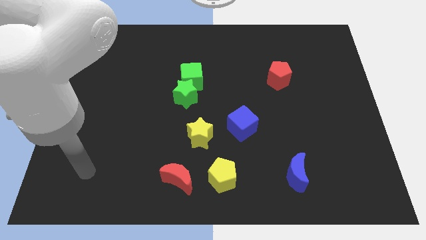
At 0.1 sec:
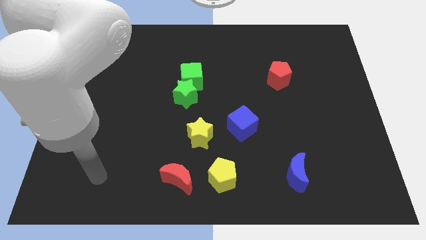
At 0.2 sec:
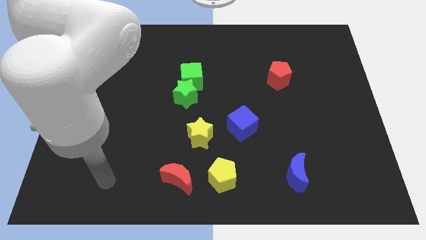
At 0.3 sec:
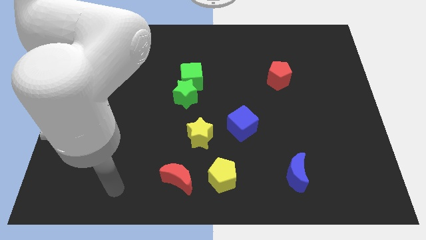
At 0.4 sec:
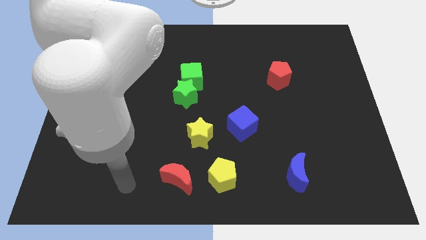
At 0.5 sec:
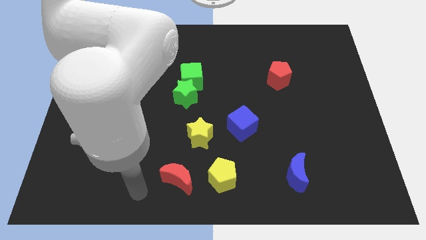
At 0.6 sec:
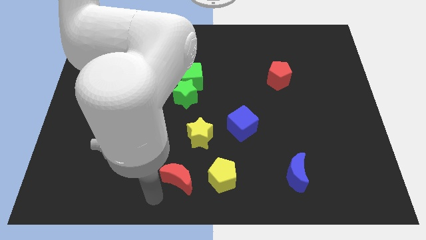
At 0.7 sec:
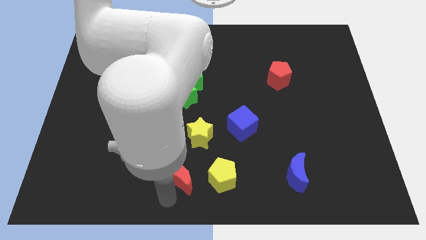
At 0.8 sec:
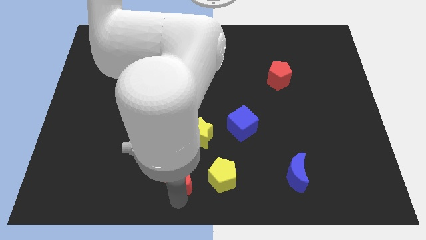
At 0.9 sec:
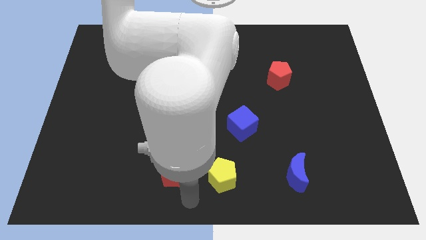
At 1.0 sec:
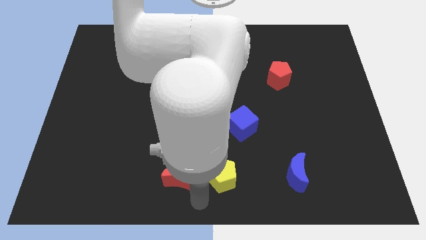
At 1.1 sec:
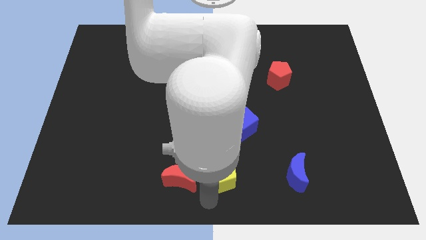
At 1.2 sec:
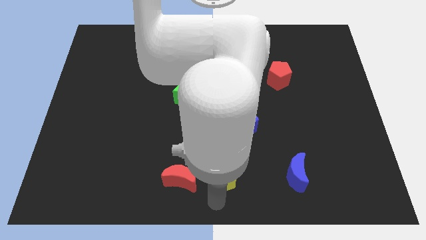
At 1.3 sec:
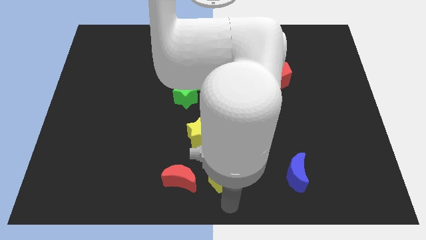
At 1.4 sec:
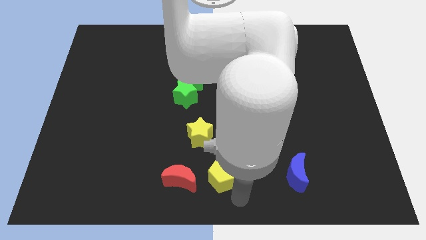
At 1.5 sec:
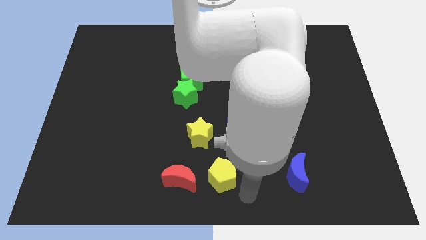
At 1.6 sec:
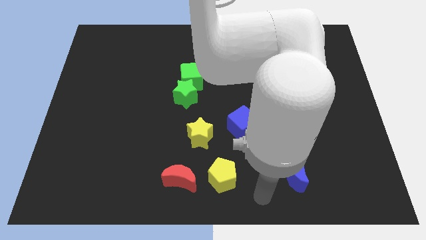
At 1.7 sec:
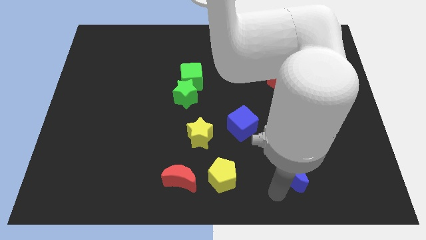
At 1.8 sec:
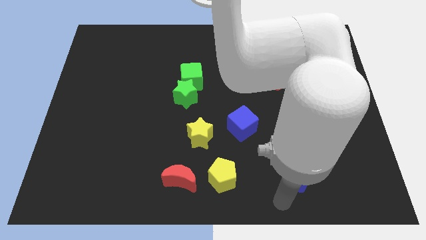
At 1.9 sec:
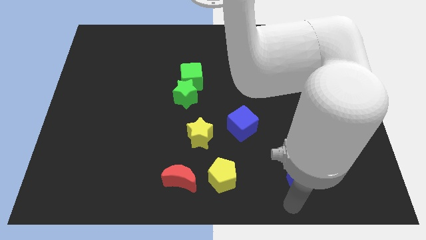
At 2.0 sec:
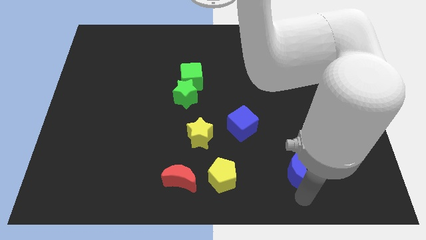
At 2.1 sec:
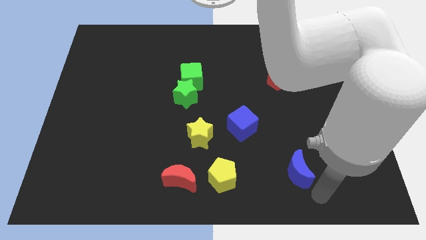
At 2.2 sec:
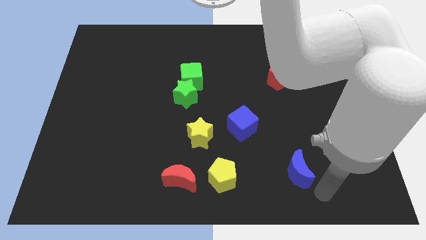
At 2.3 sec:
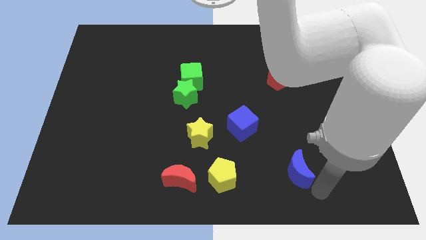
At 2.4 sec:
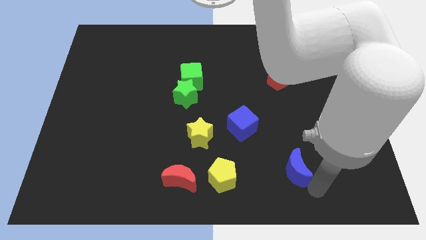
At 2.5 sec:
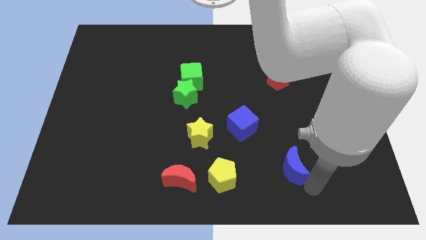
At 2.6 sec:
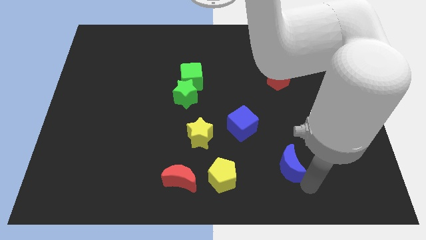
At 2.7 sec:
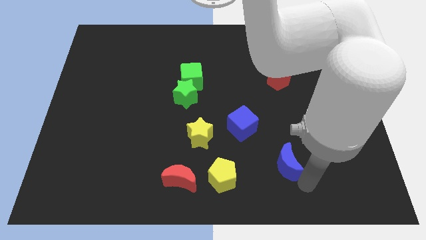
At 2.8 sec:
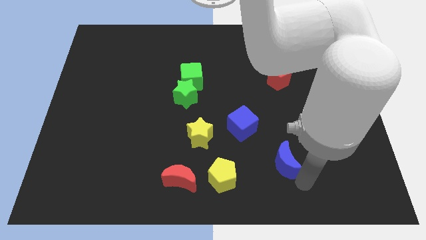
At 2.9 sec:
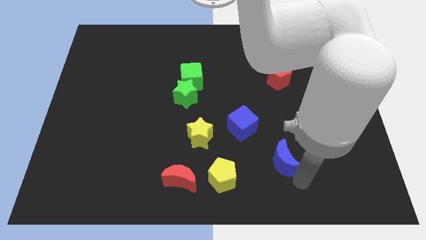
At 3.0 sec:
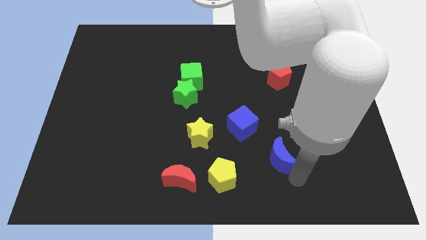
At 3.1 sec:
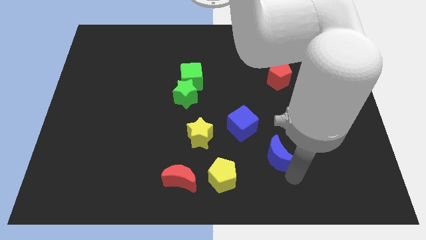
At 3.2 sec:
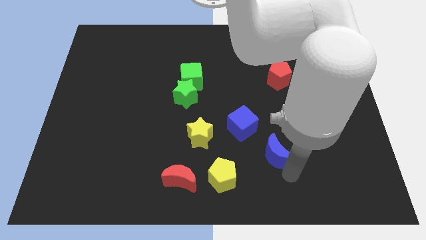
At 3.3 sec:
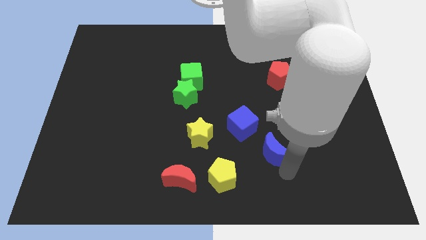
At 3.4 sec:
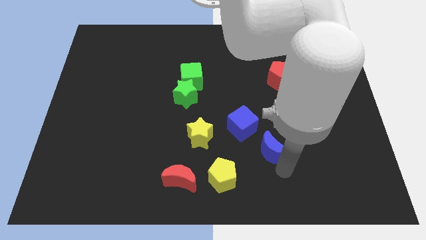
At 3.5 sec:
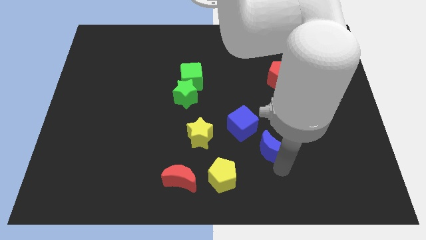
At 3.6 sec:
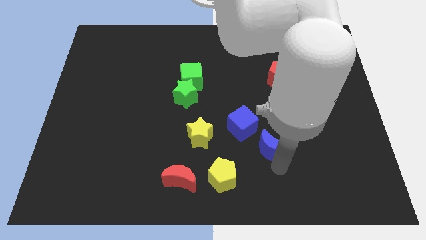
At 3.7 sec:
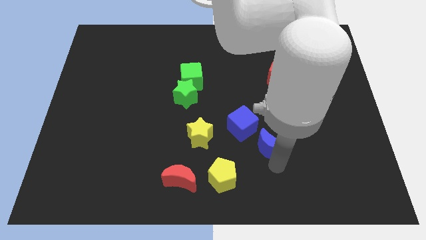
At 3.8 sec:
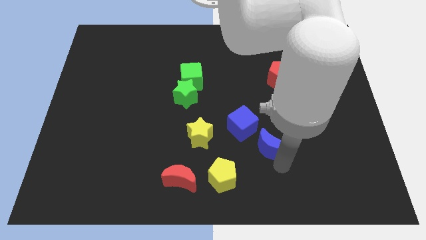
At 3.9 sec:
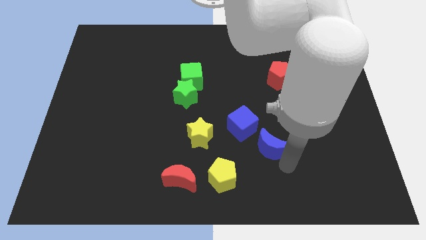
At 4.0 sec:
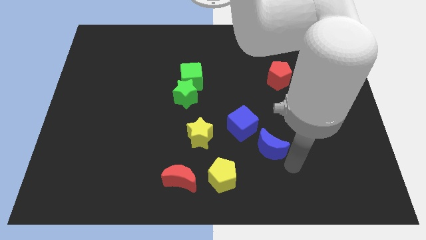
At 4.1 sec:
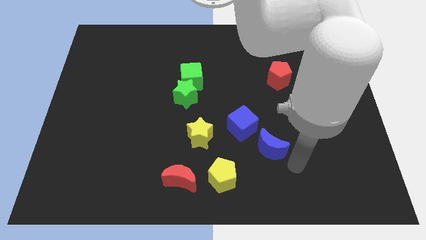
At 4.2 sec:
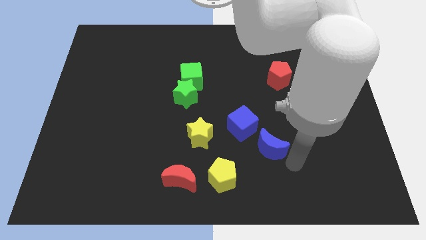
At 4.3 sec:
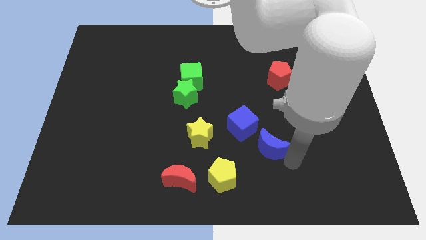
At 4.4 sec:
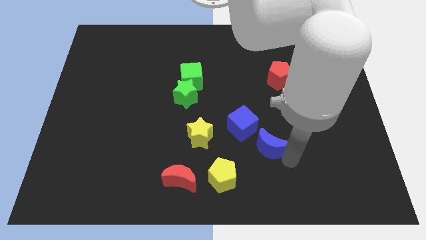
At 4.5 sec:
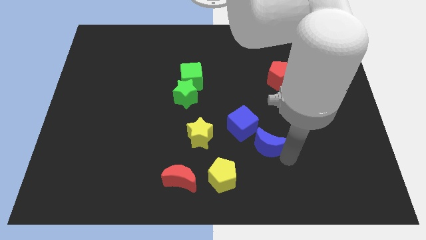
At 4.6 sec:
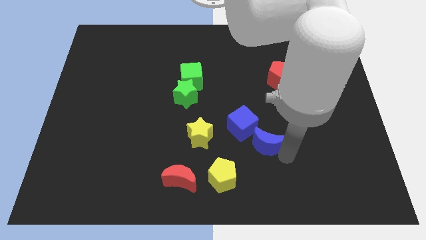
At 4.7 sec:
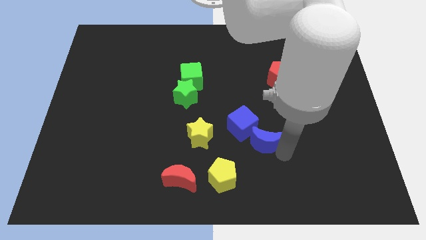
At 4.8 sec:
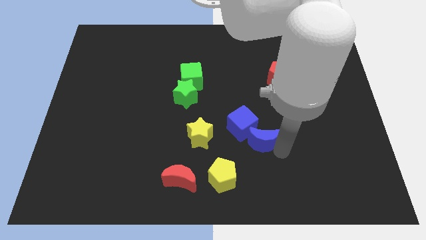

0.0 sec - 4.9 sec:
put the blue moon to the blue cube

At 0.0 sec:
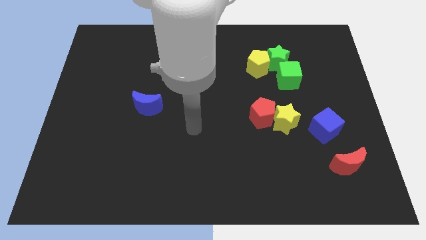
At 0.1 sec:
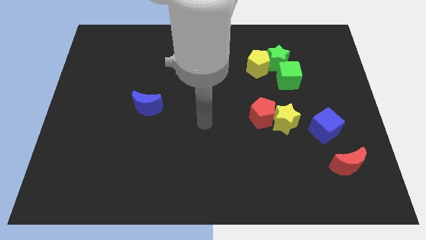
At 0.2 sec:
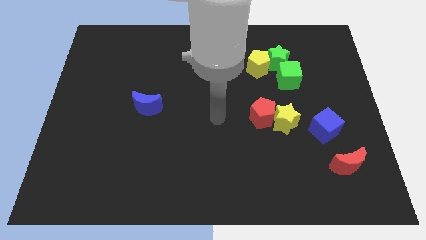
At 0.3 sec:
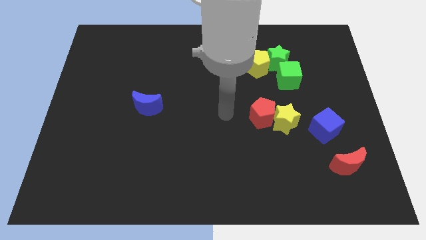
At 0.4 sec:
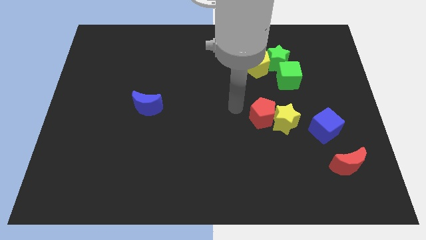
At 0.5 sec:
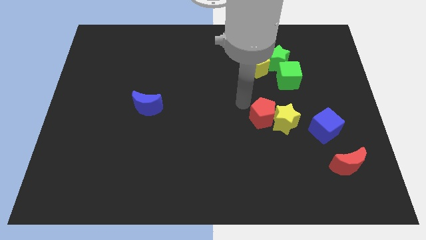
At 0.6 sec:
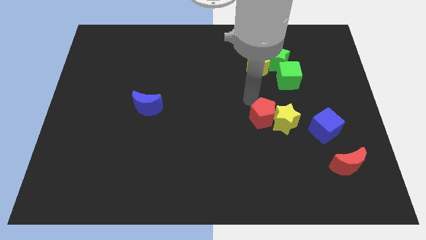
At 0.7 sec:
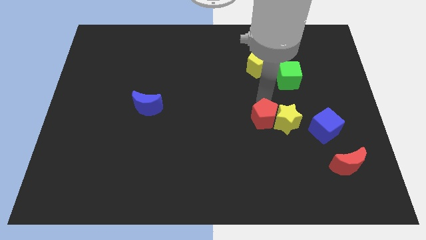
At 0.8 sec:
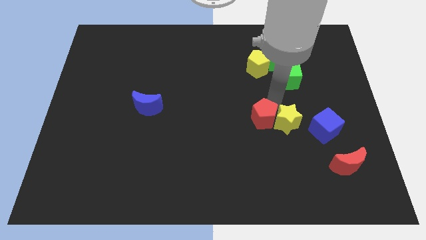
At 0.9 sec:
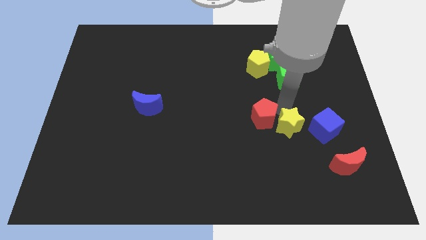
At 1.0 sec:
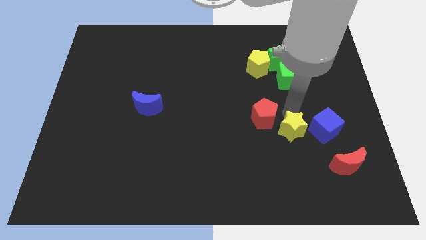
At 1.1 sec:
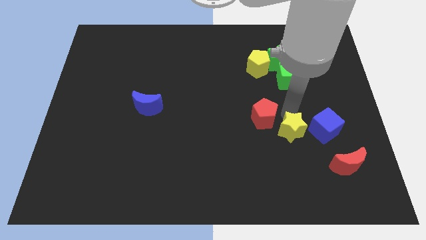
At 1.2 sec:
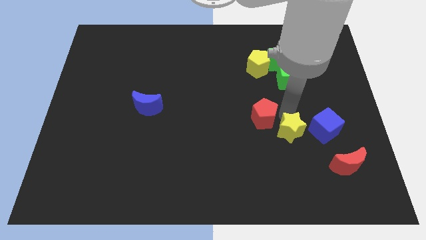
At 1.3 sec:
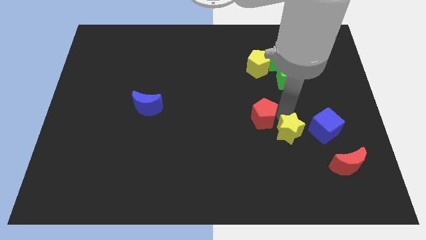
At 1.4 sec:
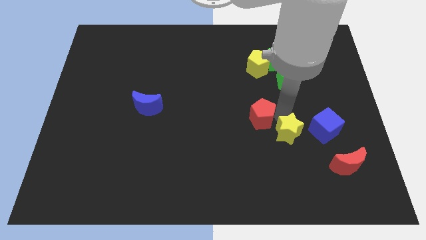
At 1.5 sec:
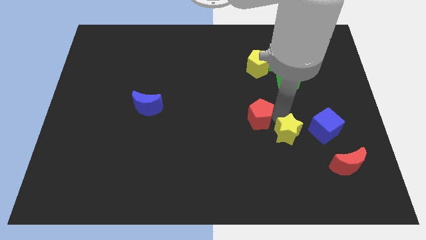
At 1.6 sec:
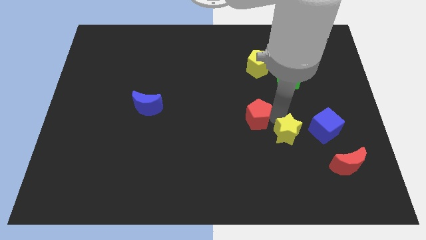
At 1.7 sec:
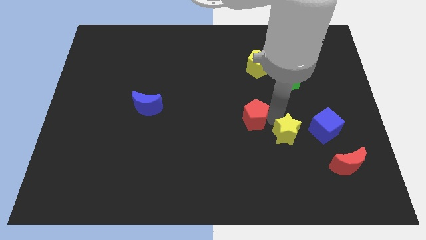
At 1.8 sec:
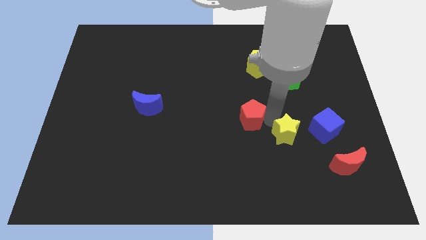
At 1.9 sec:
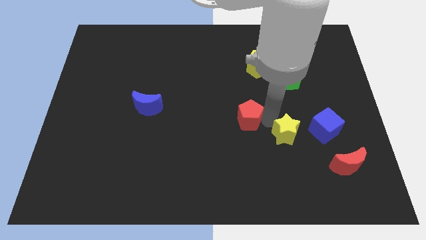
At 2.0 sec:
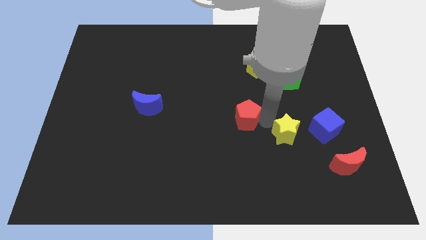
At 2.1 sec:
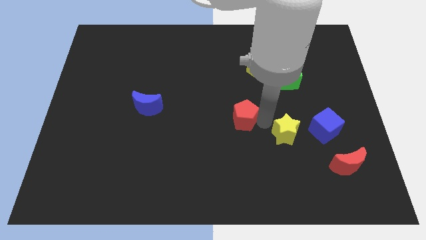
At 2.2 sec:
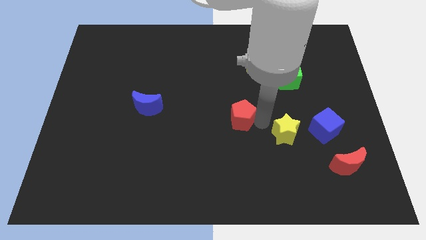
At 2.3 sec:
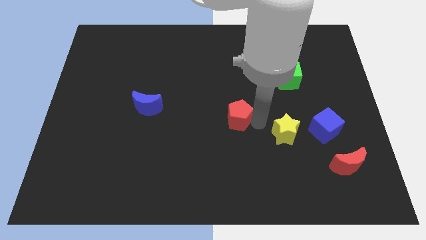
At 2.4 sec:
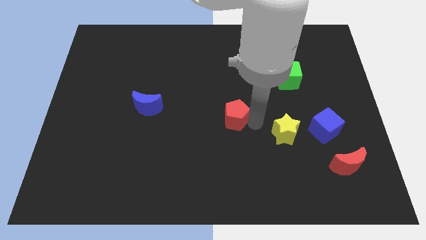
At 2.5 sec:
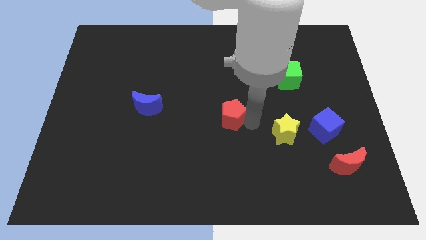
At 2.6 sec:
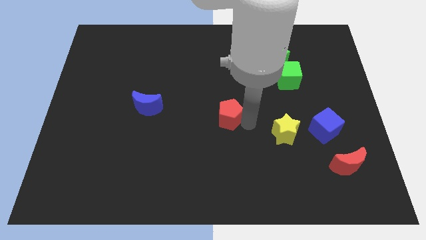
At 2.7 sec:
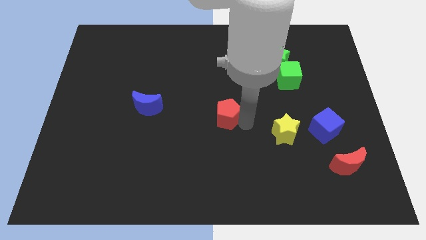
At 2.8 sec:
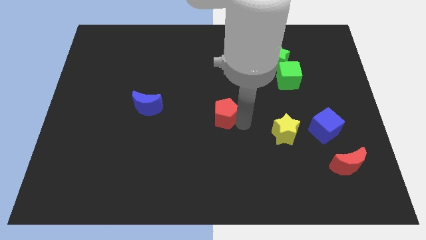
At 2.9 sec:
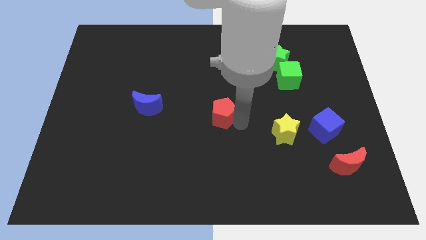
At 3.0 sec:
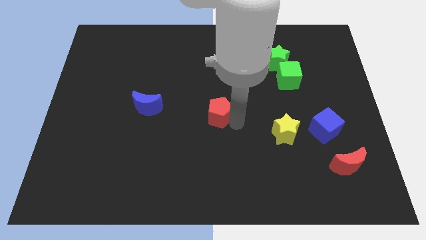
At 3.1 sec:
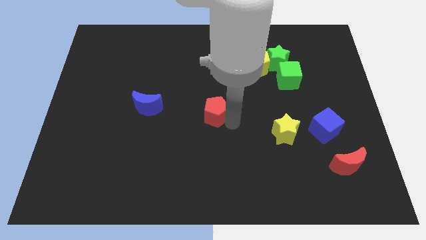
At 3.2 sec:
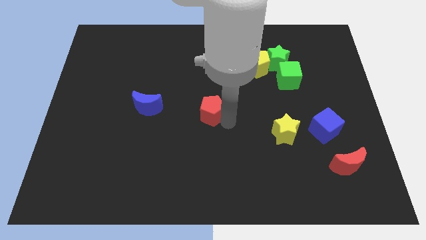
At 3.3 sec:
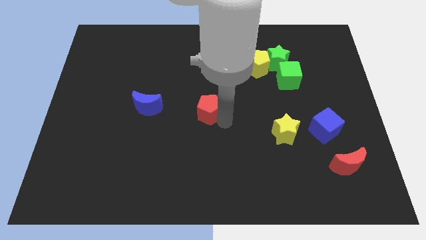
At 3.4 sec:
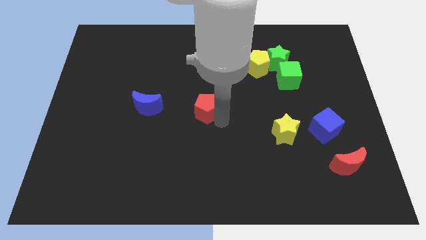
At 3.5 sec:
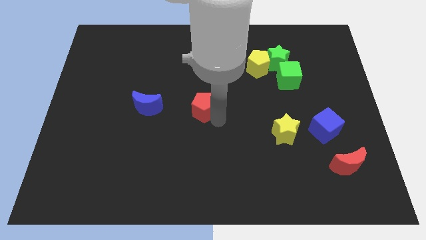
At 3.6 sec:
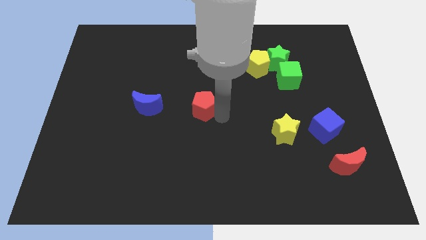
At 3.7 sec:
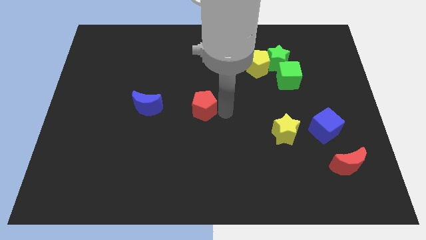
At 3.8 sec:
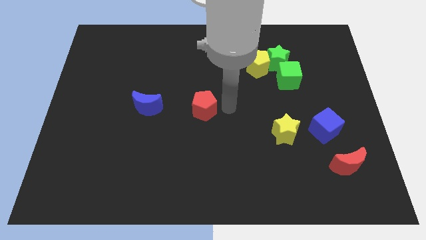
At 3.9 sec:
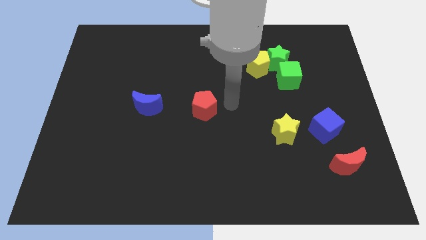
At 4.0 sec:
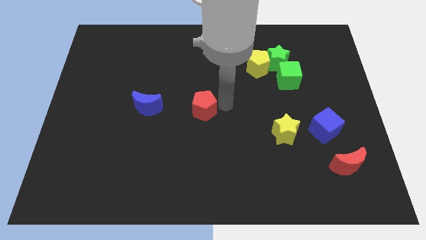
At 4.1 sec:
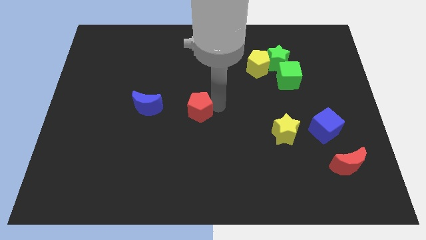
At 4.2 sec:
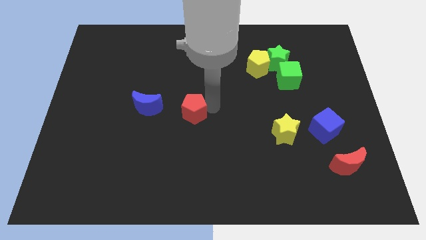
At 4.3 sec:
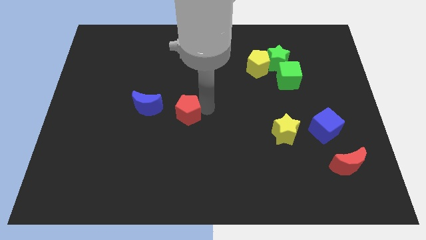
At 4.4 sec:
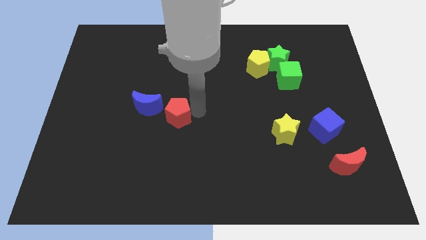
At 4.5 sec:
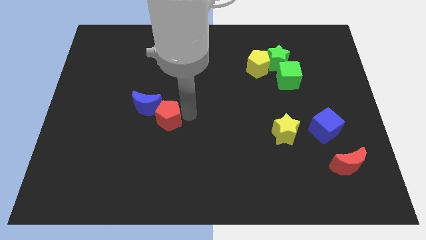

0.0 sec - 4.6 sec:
put the red pentagon to the blue moon
